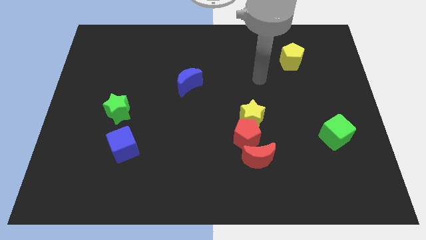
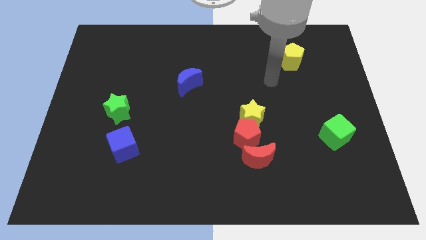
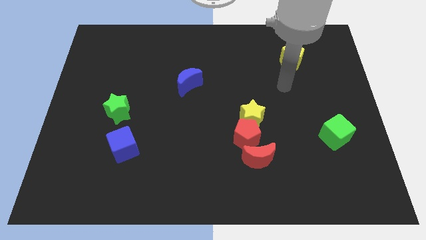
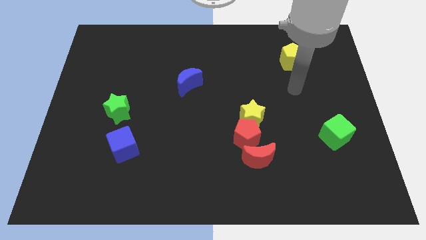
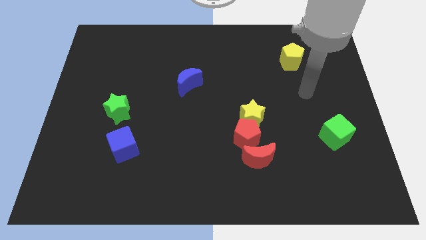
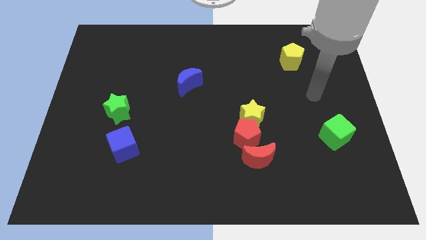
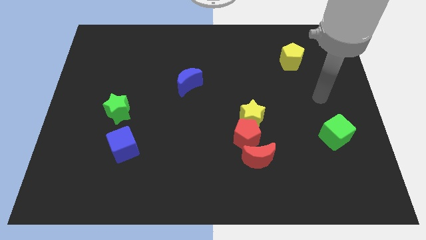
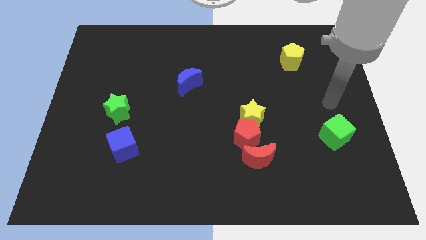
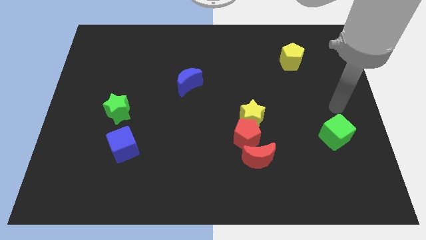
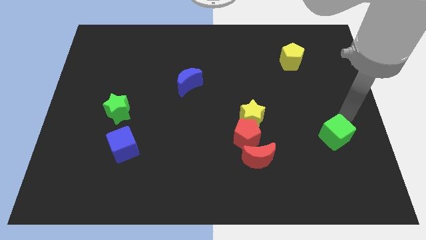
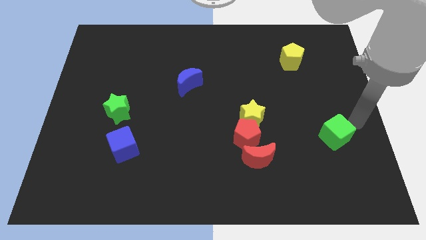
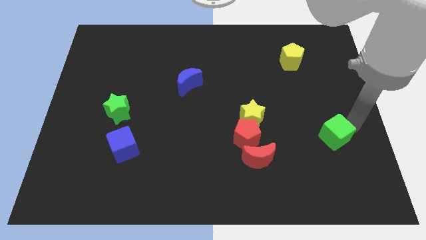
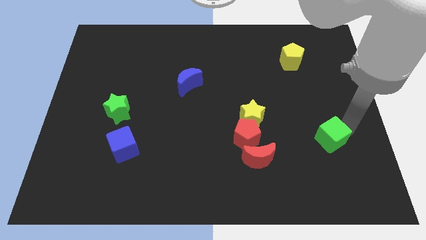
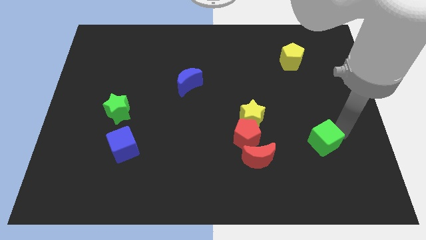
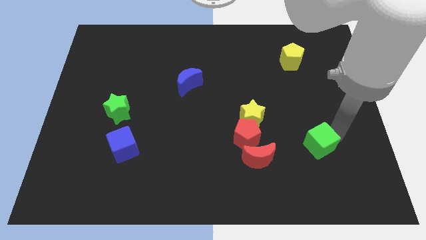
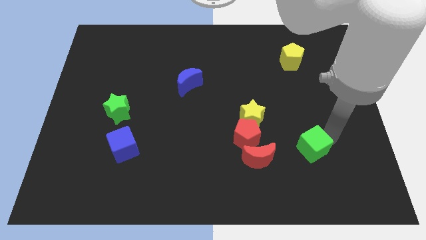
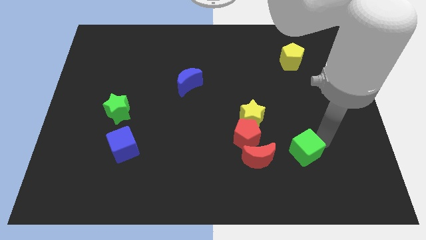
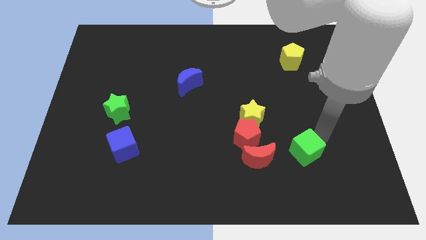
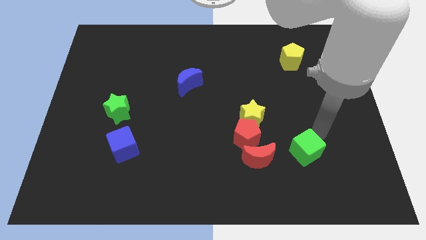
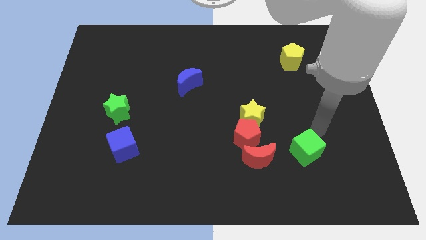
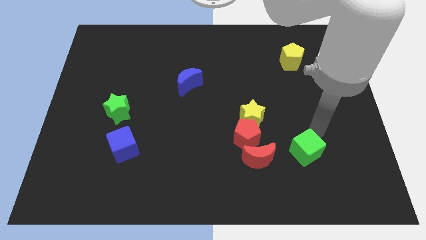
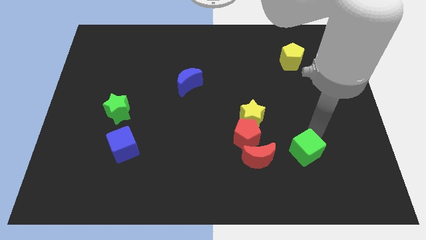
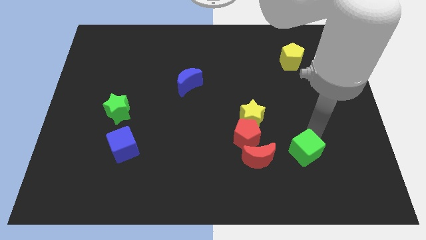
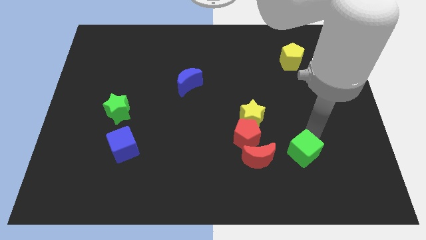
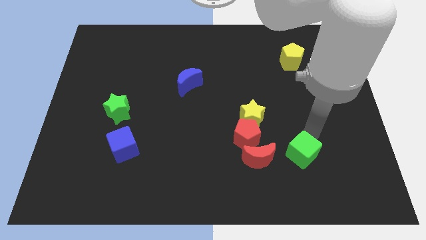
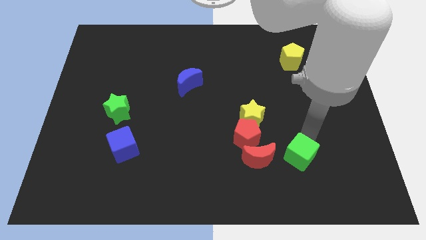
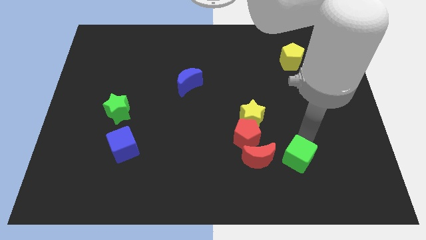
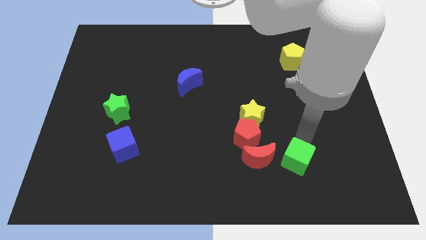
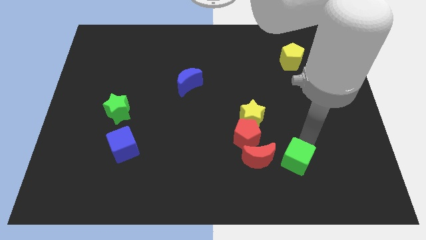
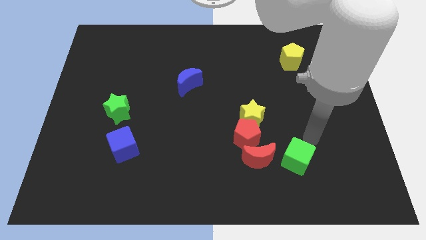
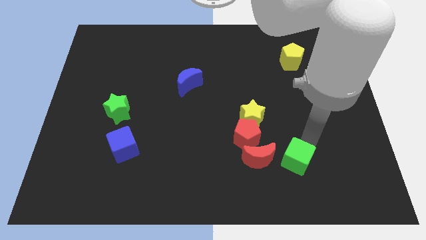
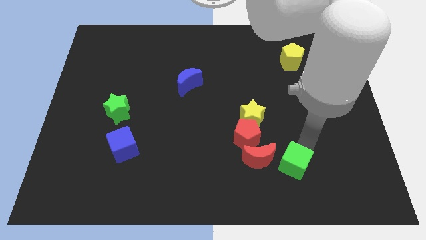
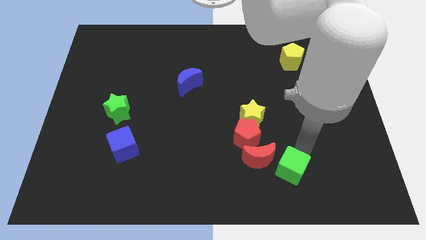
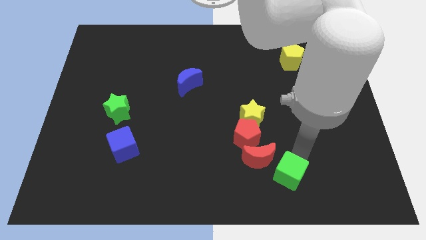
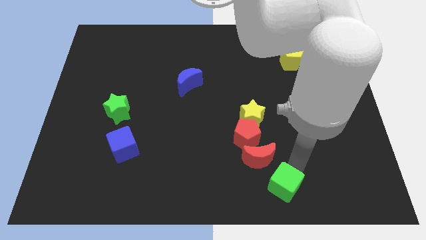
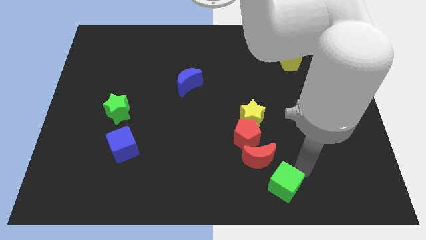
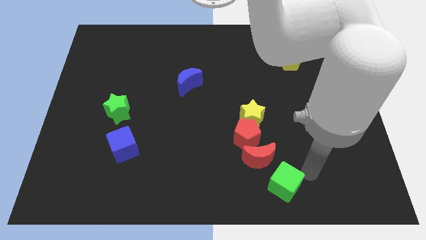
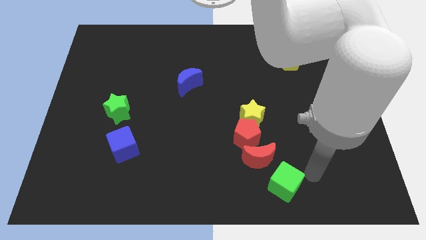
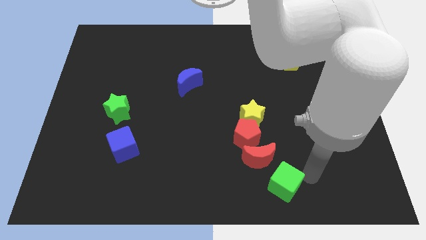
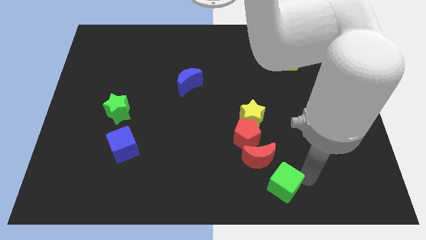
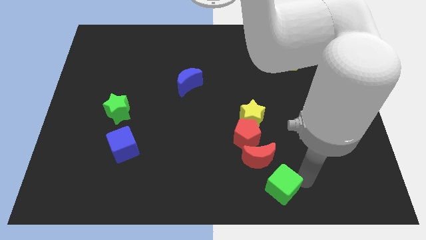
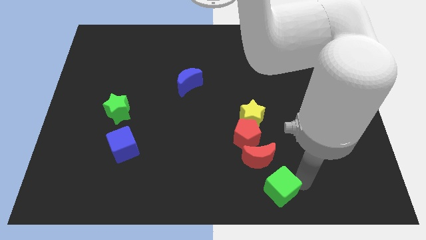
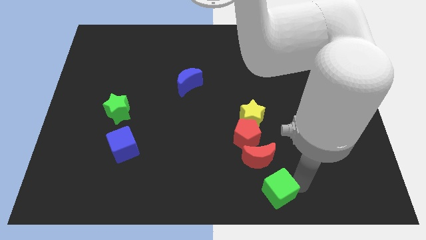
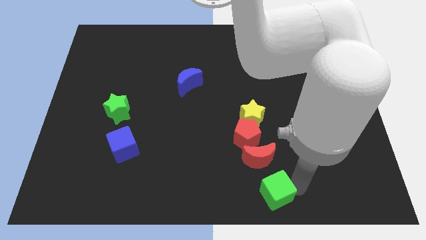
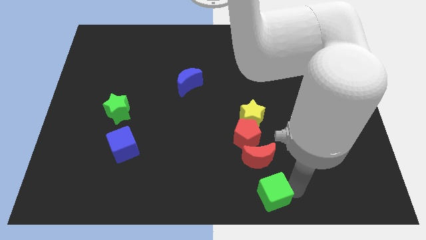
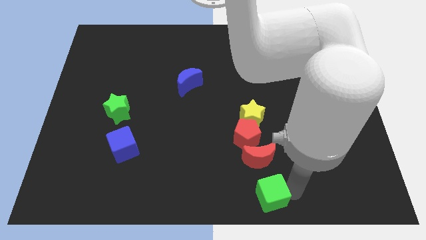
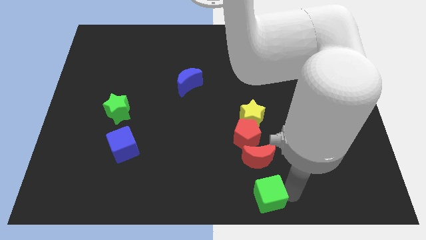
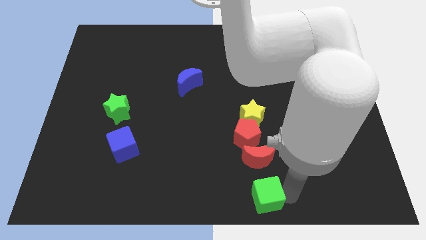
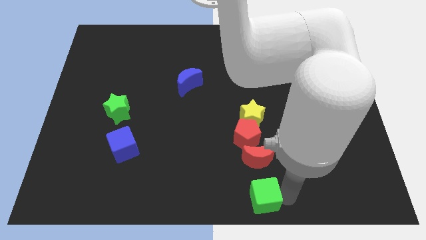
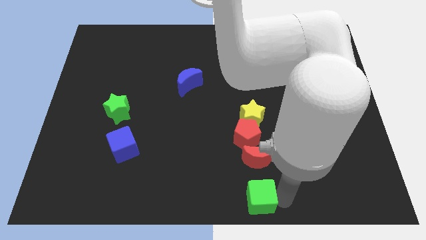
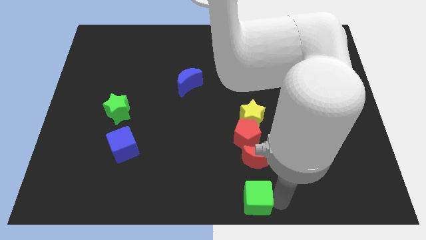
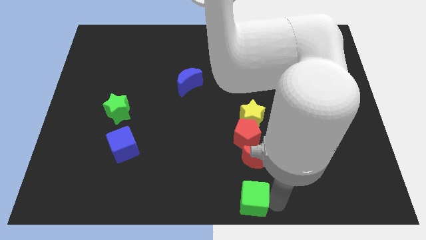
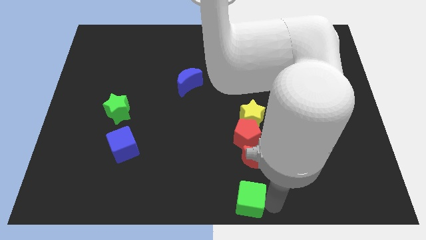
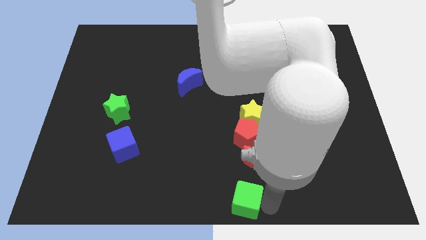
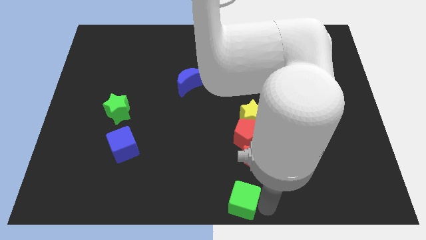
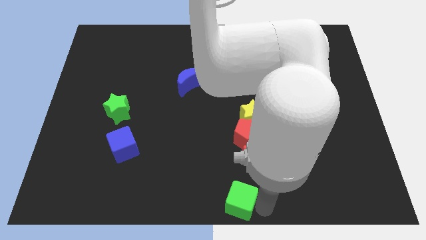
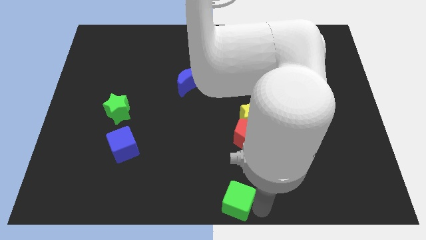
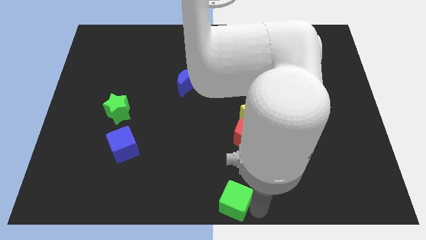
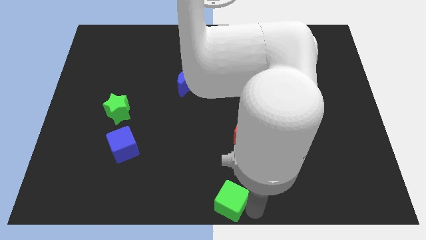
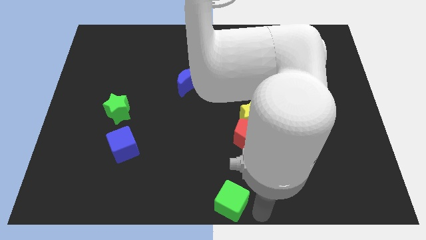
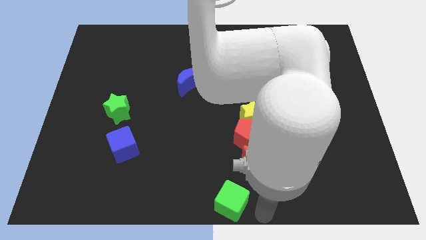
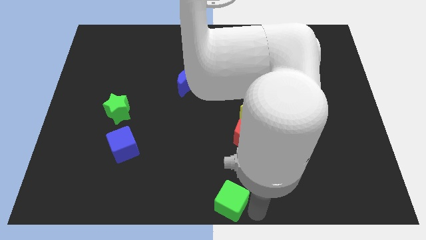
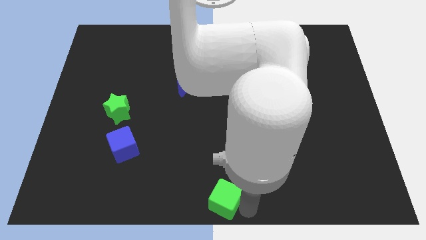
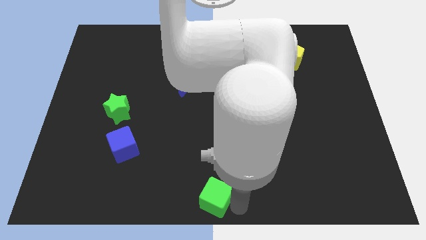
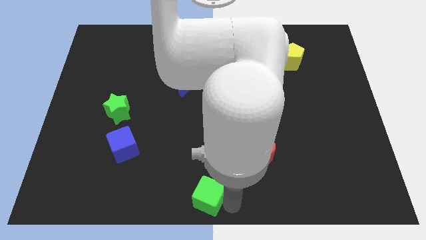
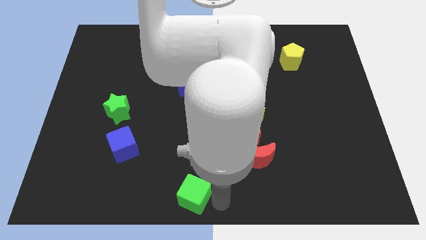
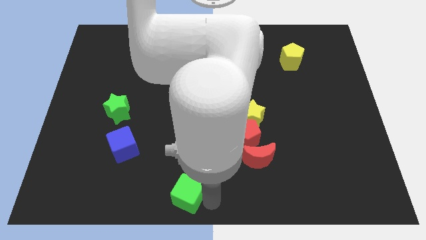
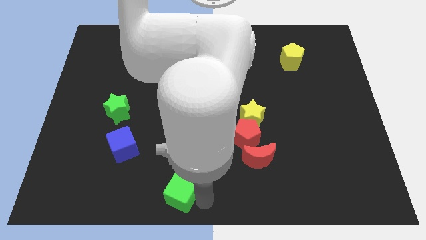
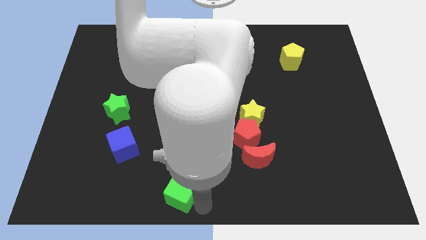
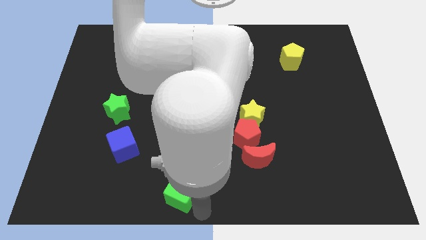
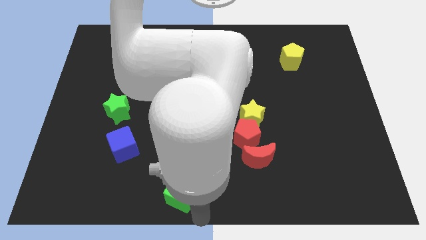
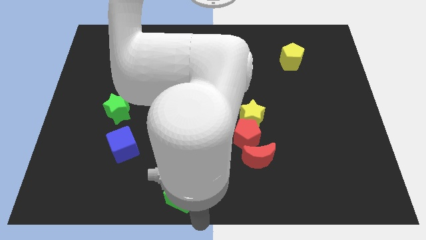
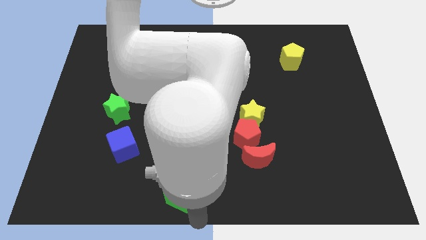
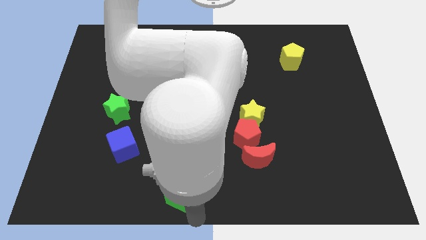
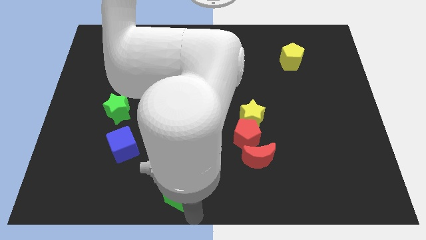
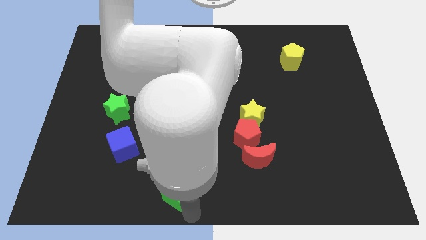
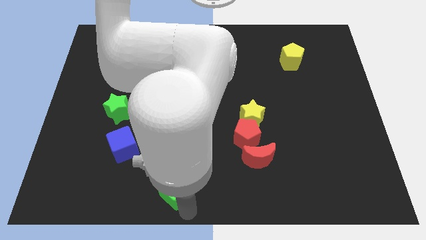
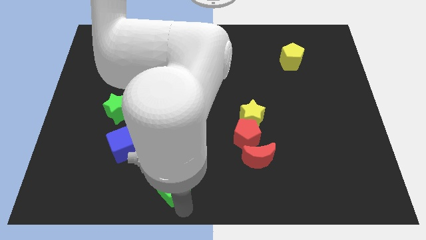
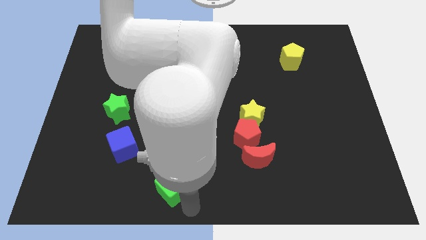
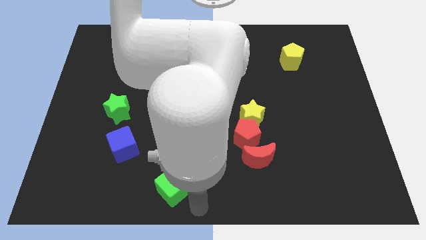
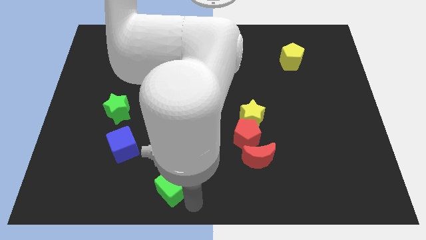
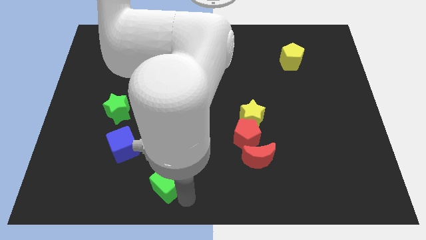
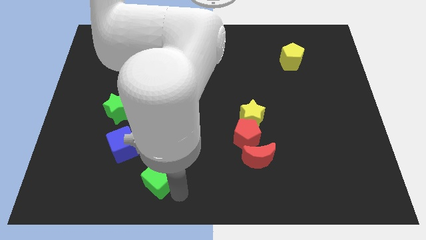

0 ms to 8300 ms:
put the green cube to the bottom right side of the blue cube
